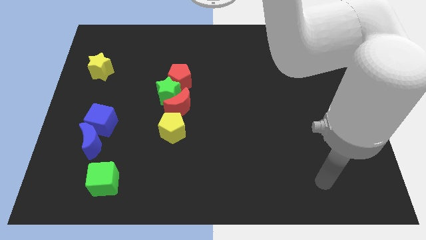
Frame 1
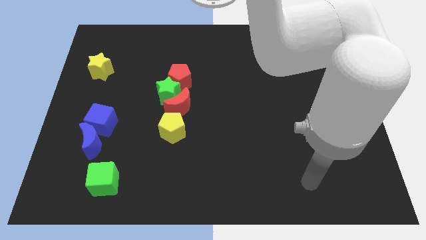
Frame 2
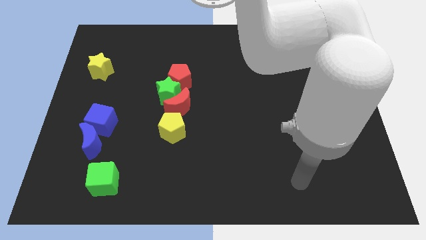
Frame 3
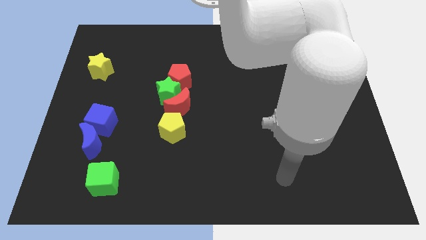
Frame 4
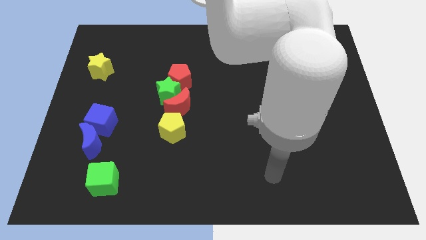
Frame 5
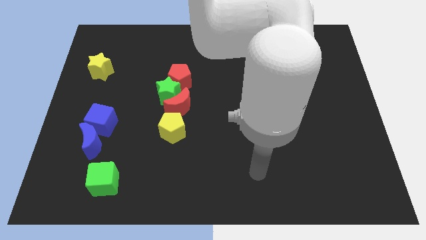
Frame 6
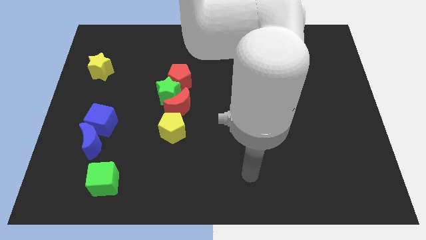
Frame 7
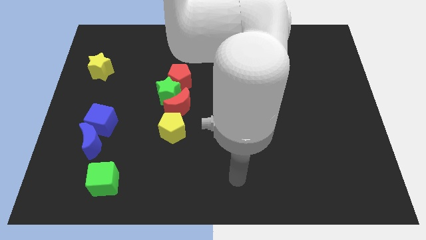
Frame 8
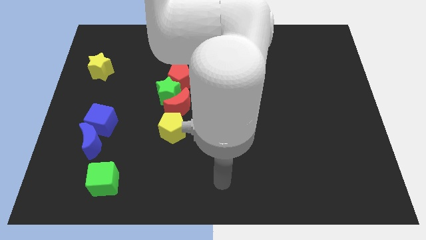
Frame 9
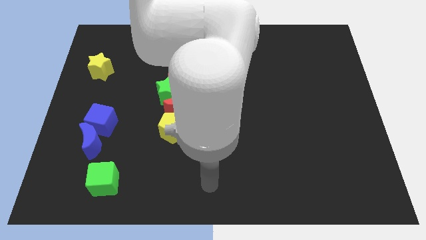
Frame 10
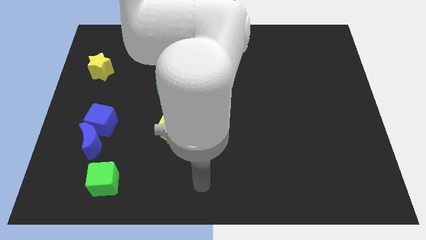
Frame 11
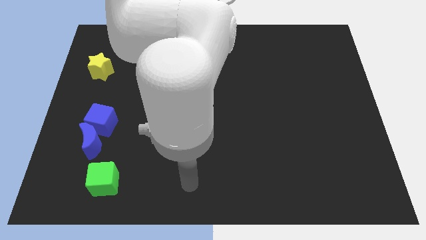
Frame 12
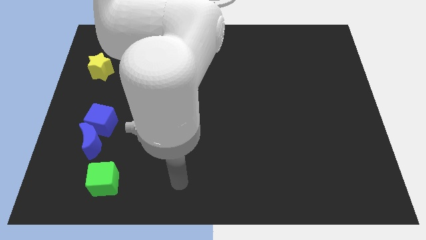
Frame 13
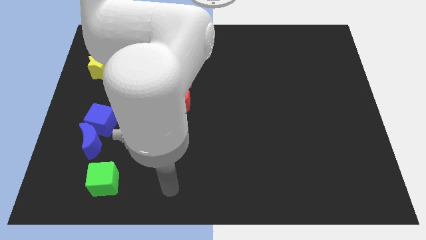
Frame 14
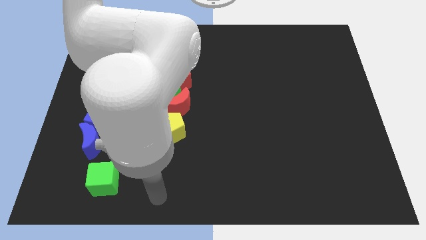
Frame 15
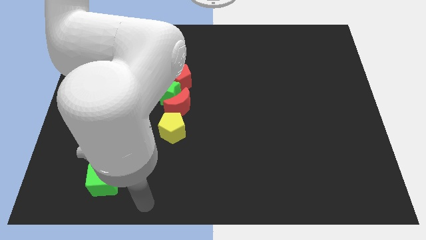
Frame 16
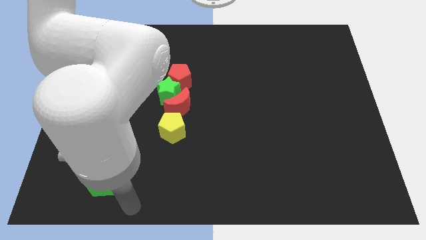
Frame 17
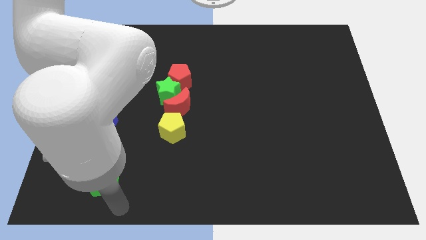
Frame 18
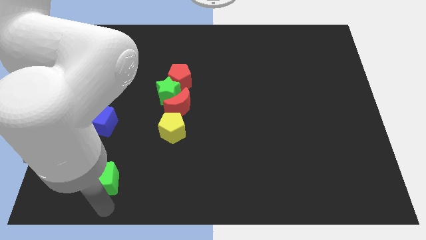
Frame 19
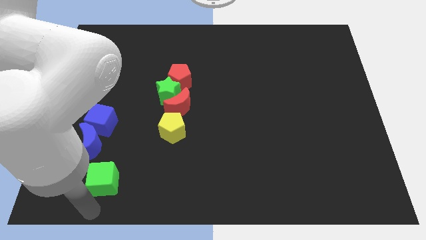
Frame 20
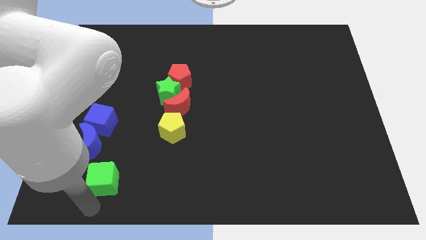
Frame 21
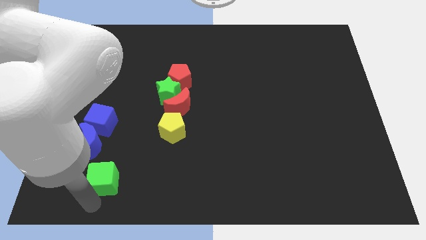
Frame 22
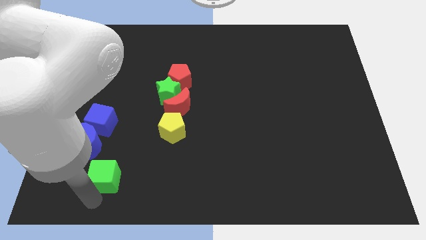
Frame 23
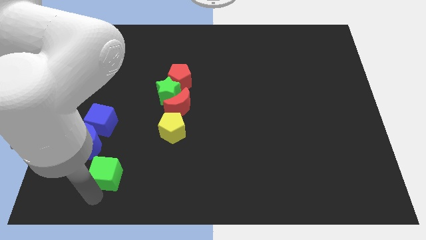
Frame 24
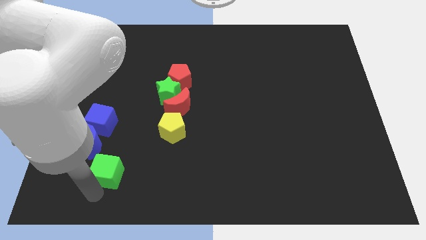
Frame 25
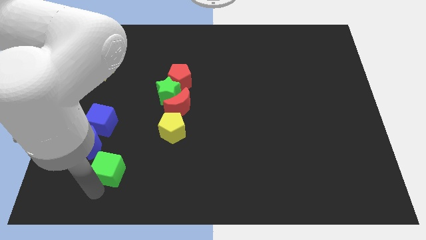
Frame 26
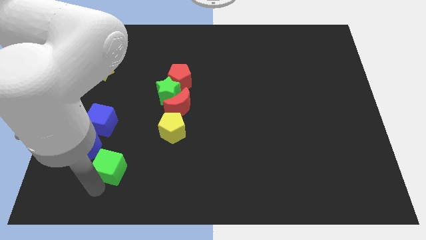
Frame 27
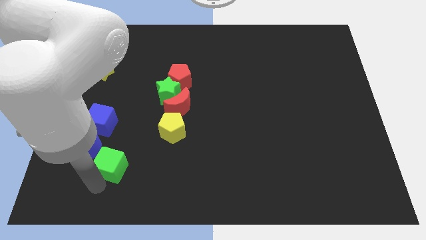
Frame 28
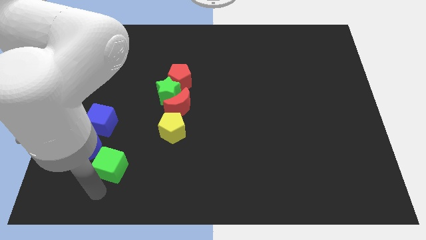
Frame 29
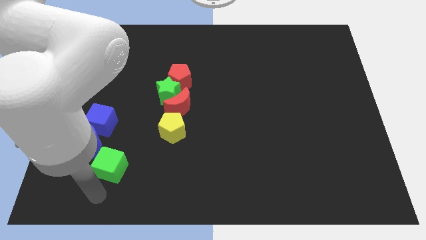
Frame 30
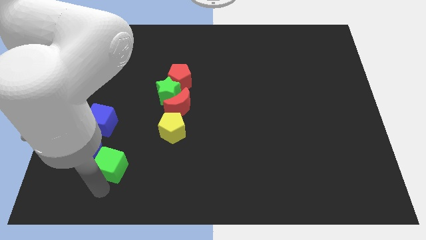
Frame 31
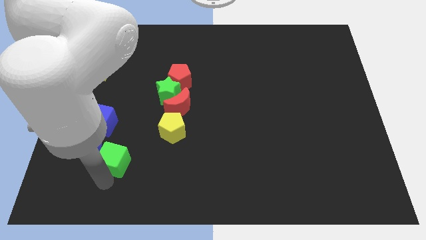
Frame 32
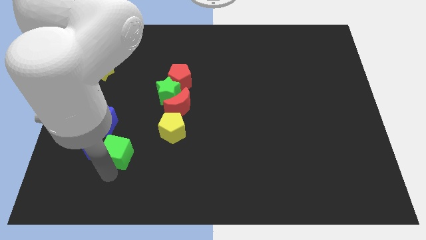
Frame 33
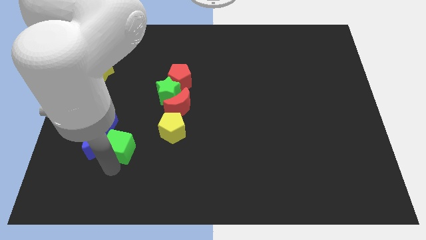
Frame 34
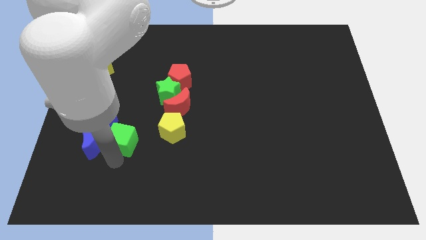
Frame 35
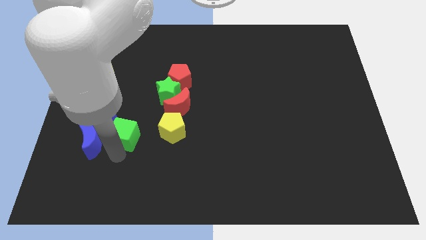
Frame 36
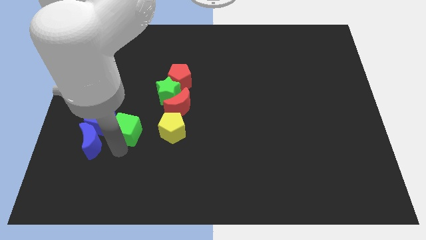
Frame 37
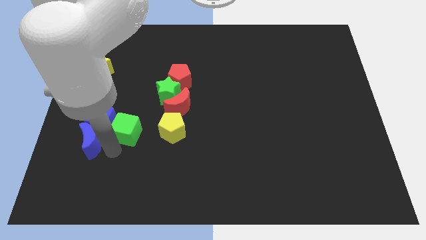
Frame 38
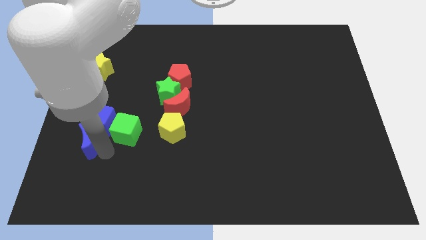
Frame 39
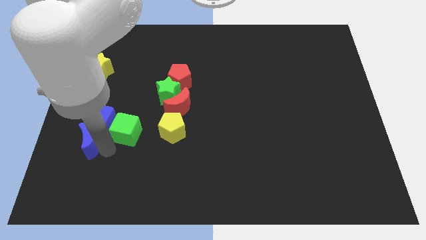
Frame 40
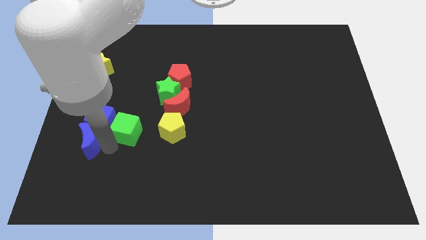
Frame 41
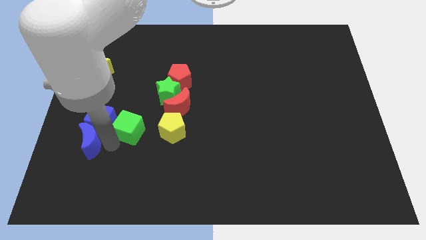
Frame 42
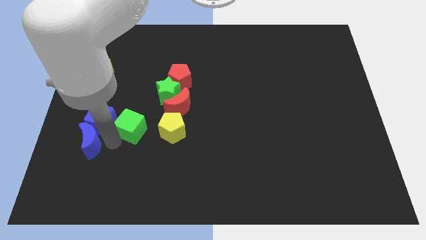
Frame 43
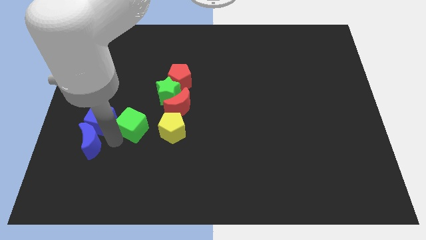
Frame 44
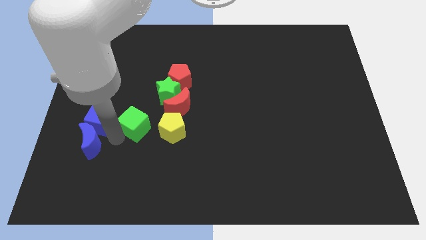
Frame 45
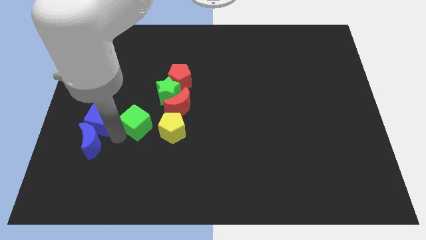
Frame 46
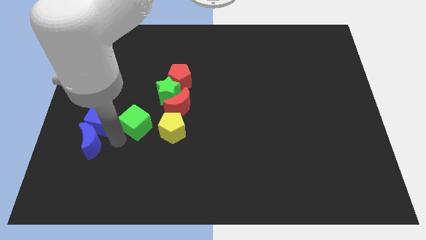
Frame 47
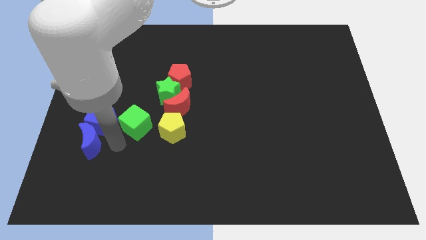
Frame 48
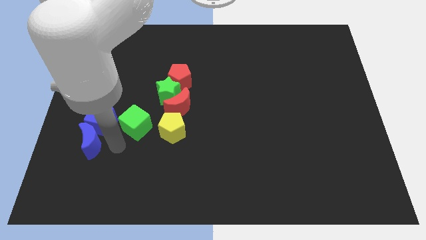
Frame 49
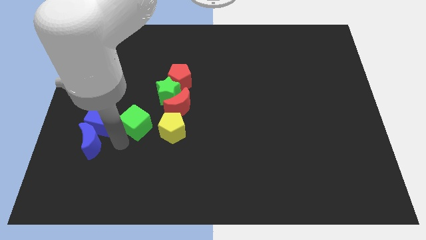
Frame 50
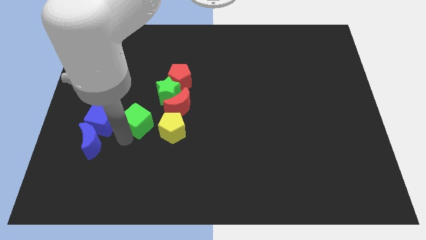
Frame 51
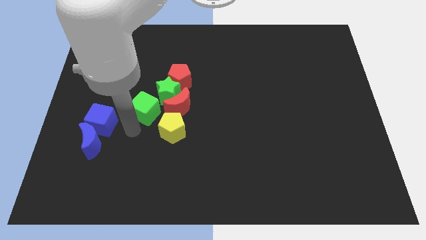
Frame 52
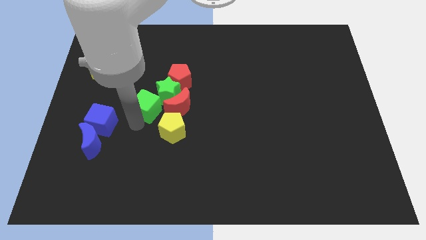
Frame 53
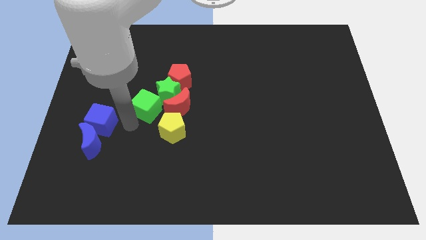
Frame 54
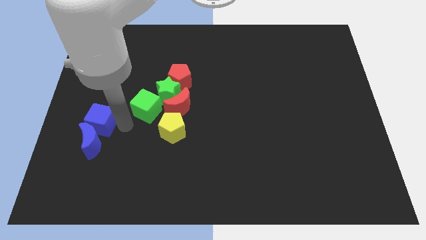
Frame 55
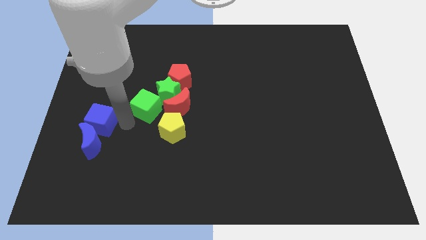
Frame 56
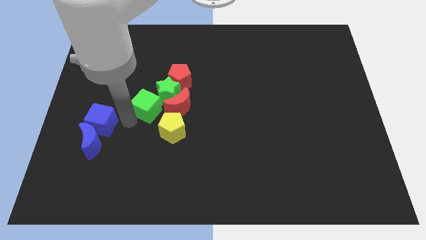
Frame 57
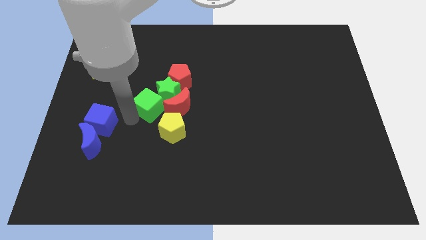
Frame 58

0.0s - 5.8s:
put the green cube close to the green star

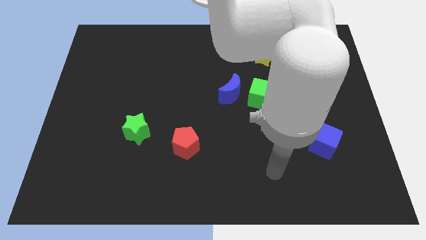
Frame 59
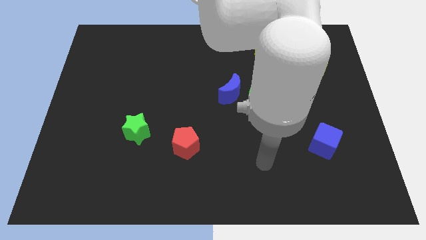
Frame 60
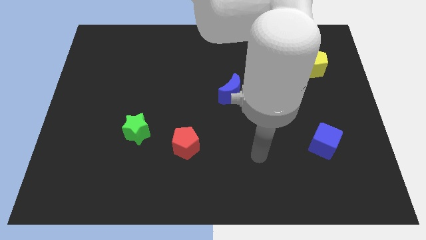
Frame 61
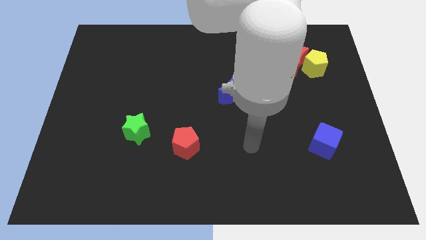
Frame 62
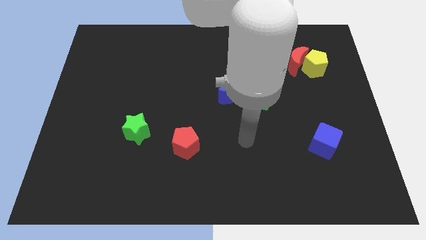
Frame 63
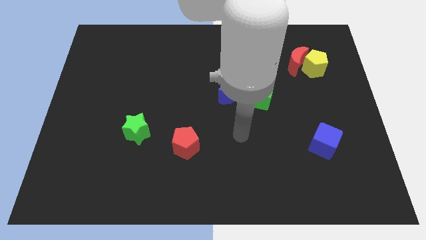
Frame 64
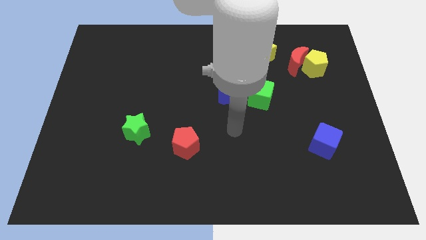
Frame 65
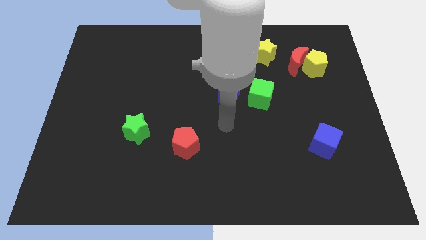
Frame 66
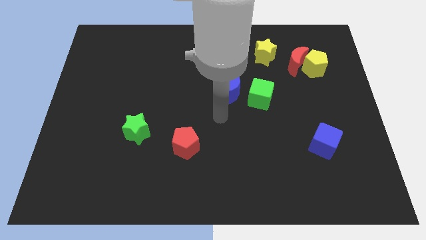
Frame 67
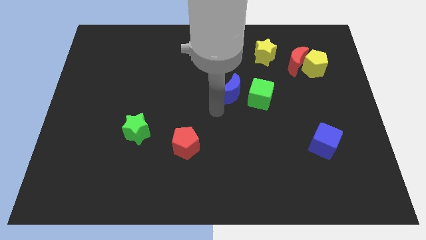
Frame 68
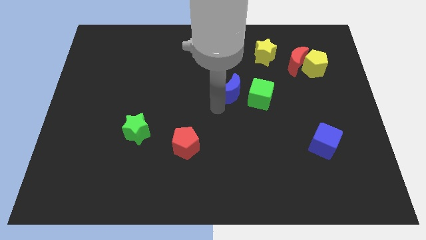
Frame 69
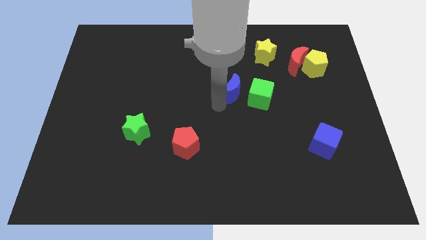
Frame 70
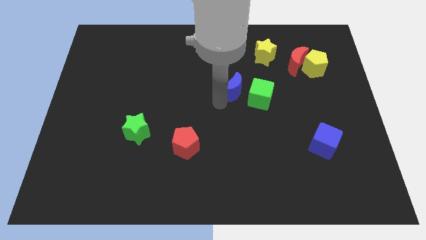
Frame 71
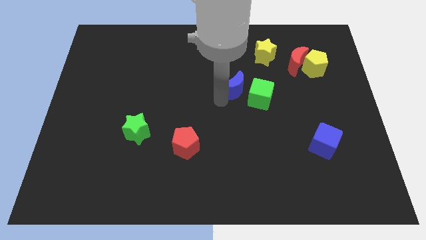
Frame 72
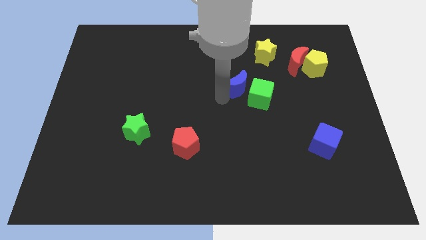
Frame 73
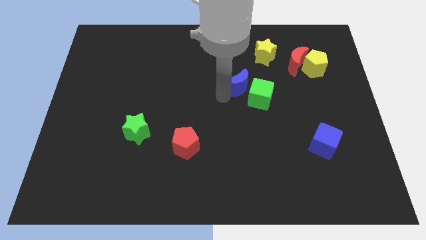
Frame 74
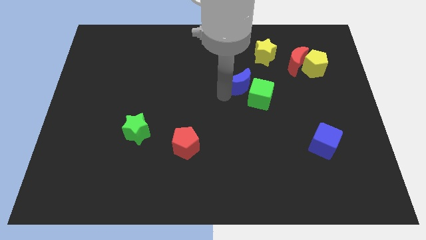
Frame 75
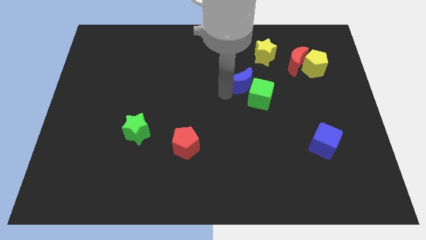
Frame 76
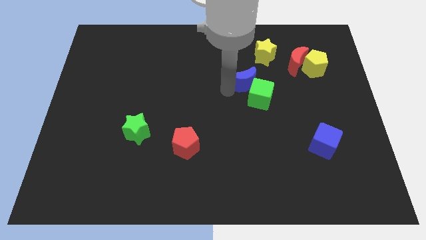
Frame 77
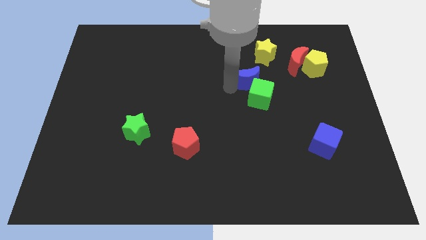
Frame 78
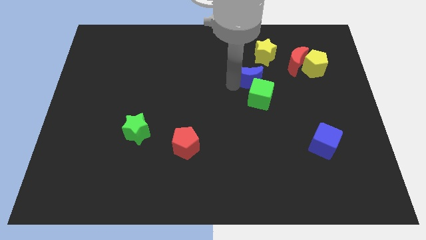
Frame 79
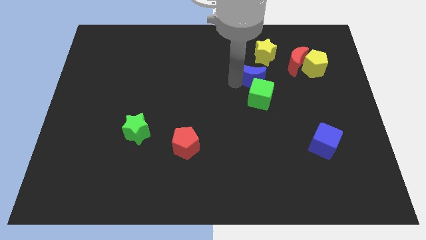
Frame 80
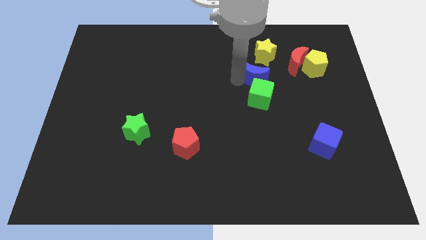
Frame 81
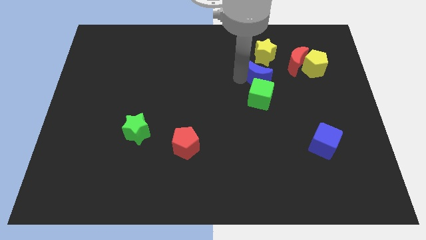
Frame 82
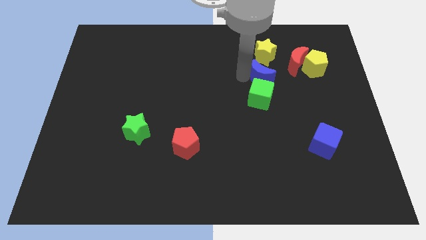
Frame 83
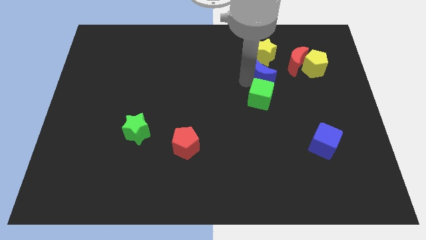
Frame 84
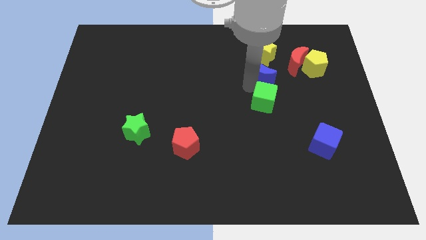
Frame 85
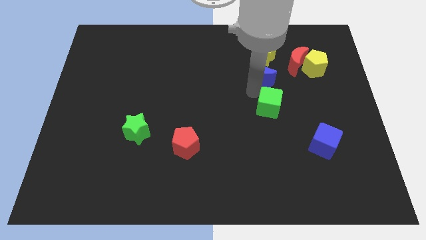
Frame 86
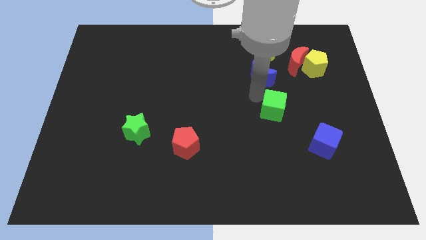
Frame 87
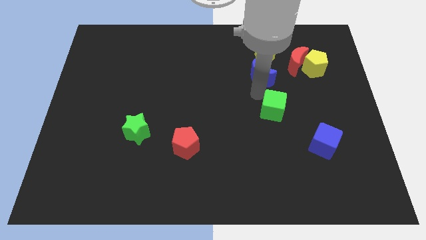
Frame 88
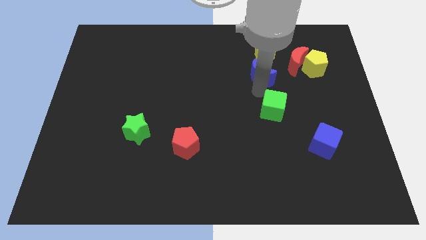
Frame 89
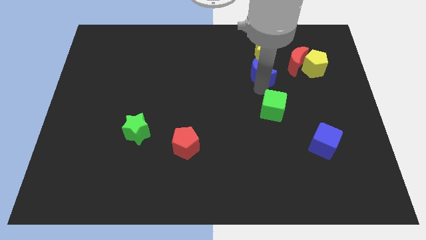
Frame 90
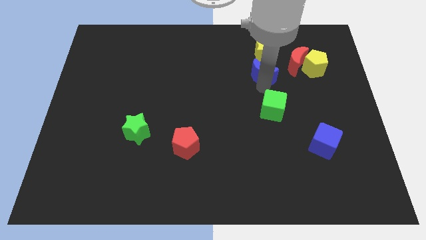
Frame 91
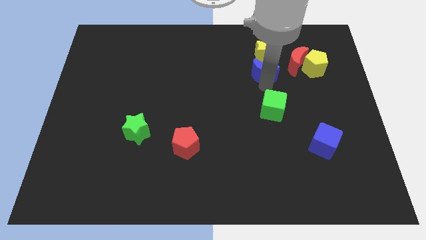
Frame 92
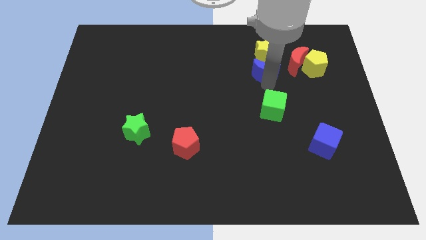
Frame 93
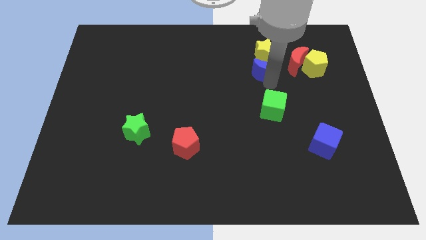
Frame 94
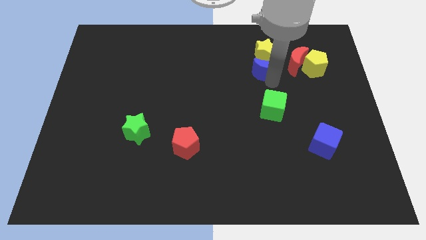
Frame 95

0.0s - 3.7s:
put the blue moon close to the yellow star
